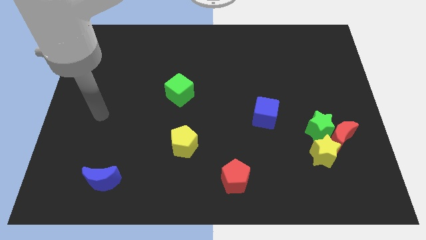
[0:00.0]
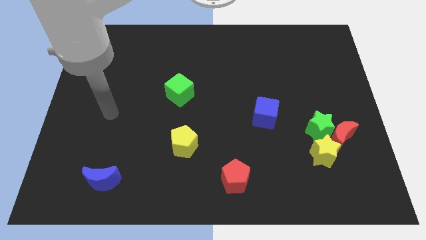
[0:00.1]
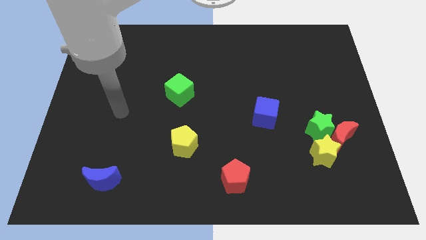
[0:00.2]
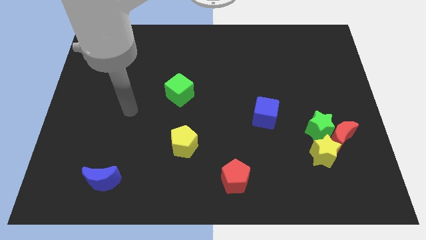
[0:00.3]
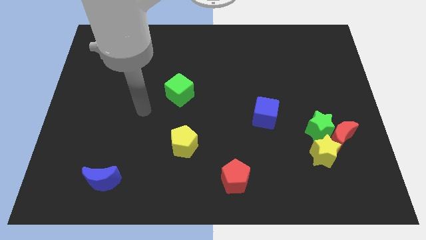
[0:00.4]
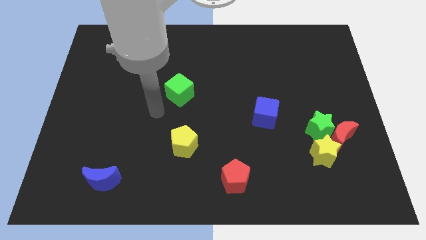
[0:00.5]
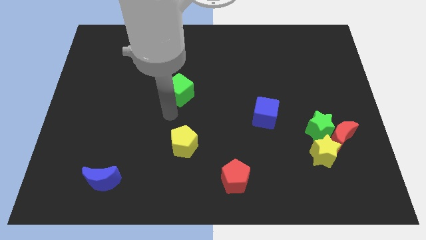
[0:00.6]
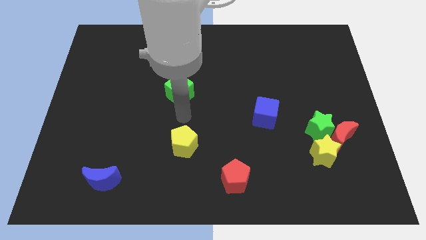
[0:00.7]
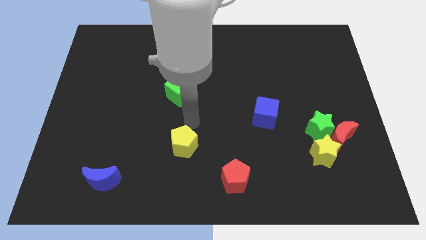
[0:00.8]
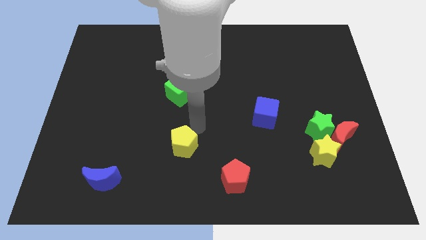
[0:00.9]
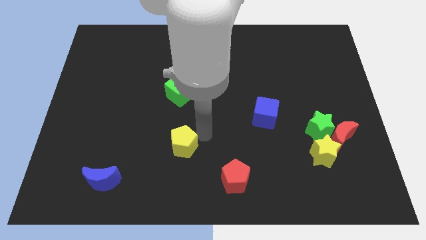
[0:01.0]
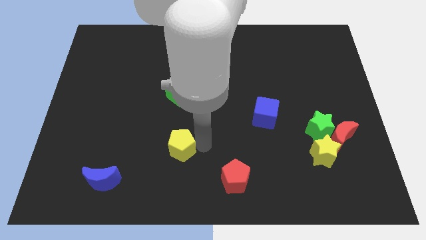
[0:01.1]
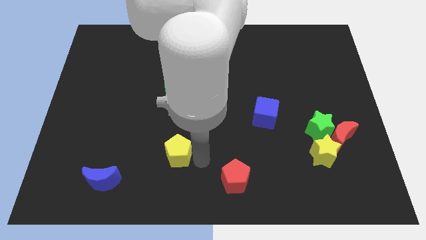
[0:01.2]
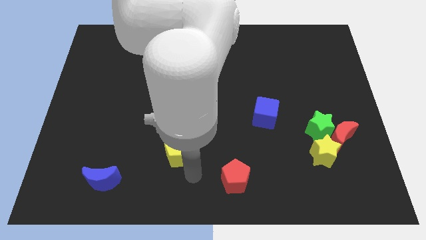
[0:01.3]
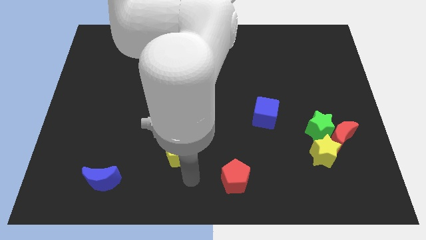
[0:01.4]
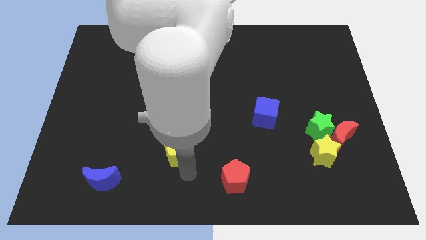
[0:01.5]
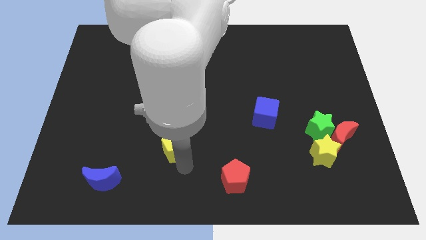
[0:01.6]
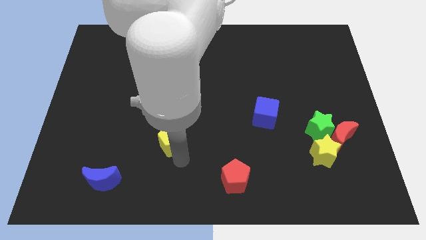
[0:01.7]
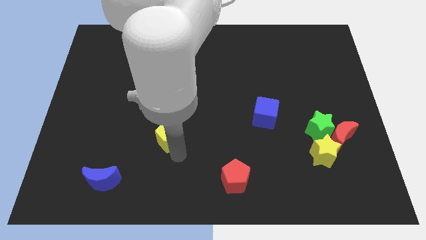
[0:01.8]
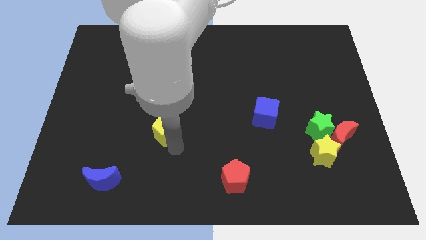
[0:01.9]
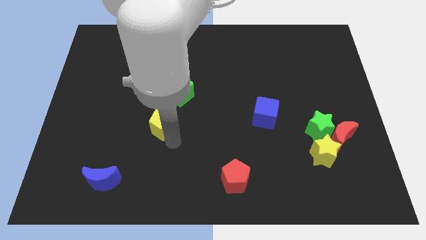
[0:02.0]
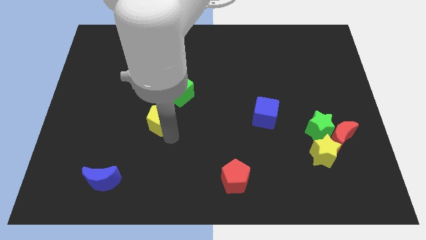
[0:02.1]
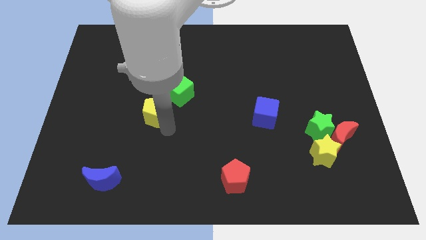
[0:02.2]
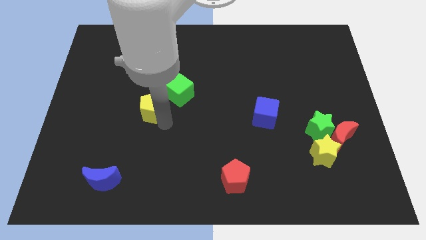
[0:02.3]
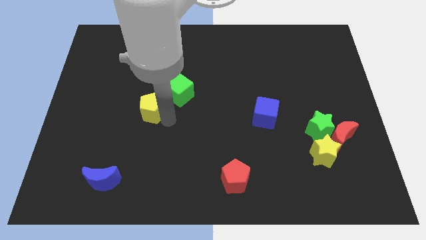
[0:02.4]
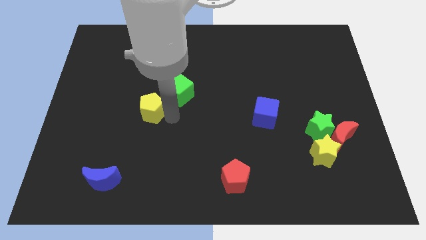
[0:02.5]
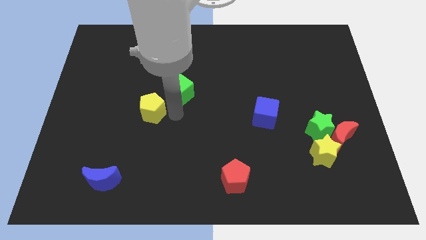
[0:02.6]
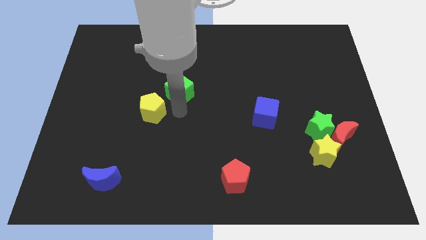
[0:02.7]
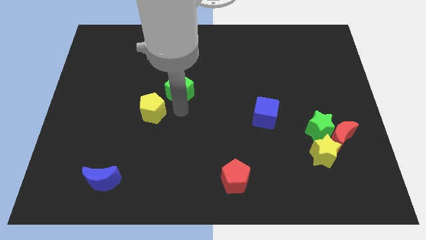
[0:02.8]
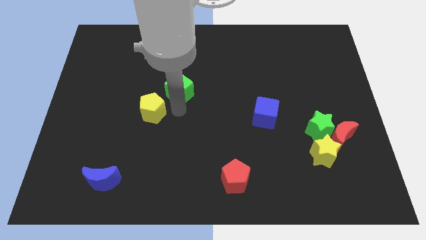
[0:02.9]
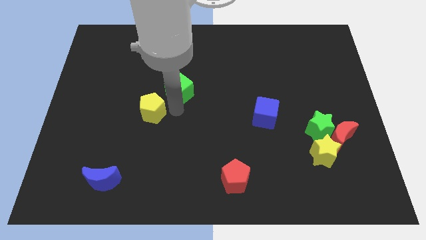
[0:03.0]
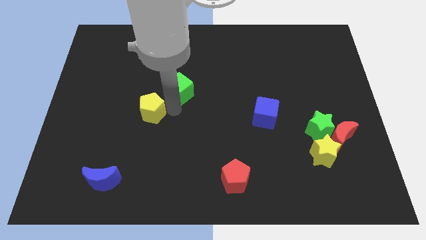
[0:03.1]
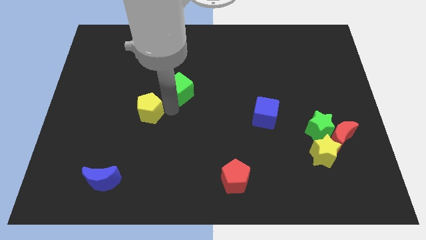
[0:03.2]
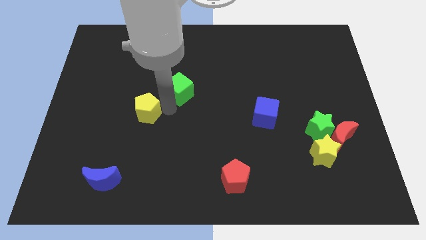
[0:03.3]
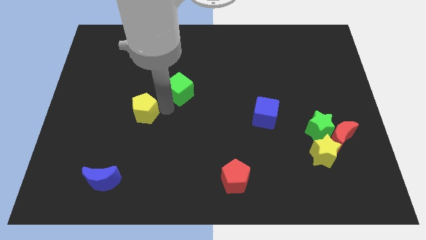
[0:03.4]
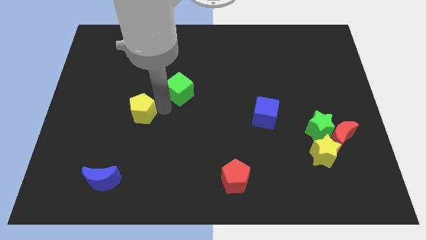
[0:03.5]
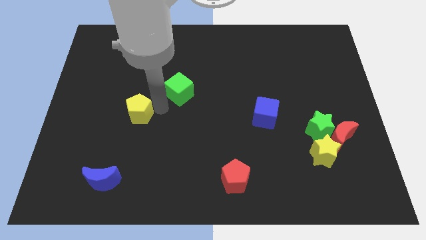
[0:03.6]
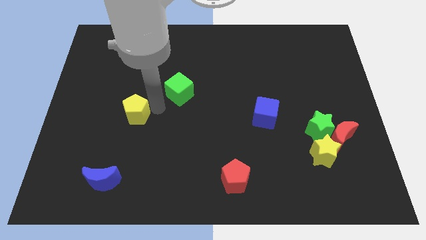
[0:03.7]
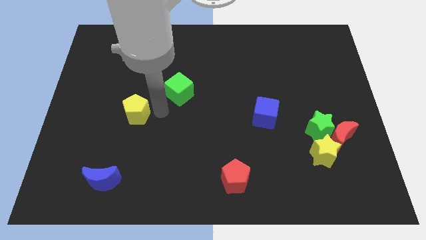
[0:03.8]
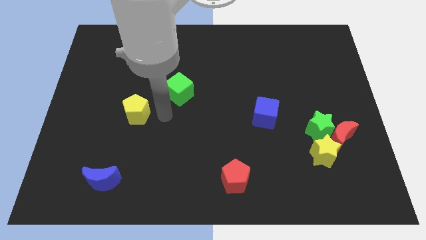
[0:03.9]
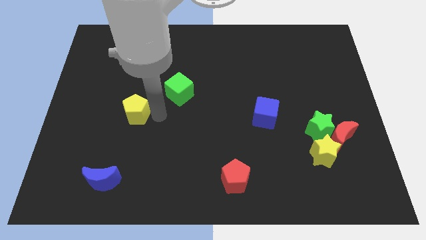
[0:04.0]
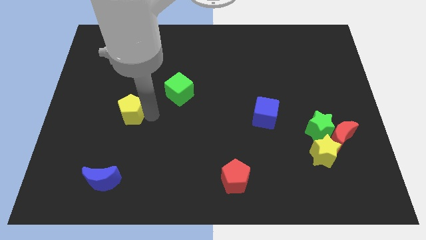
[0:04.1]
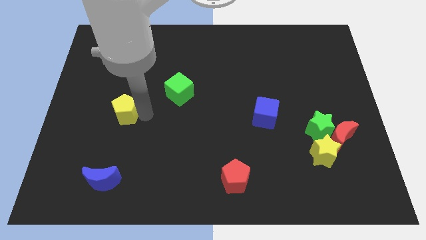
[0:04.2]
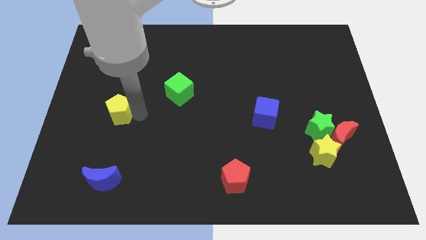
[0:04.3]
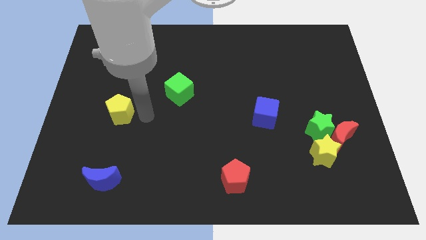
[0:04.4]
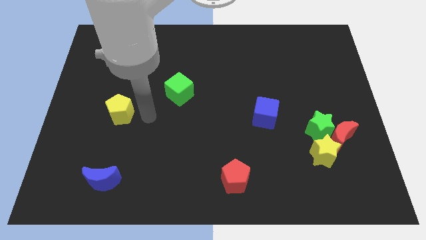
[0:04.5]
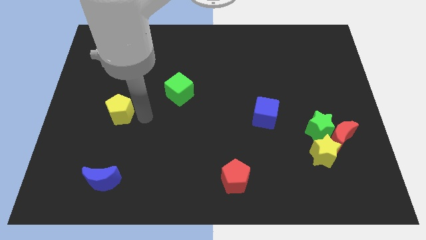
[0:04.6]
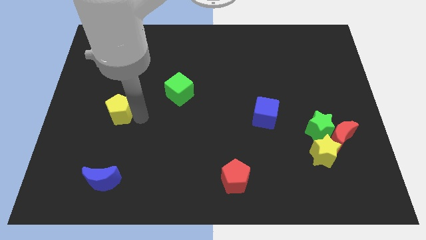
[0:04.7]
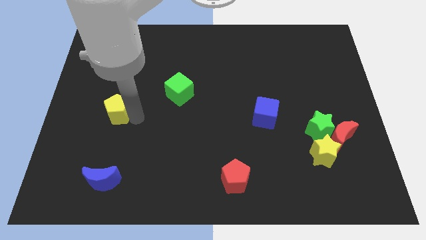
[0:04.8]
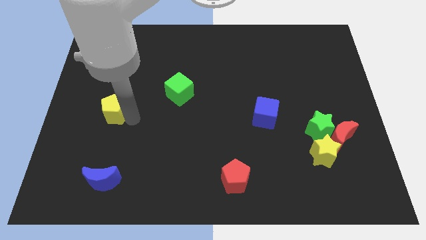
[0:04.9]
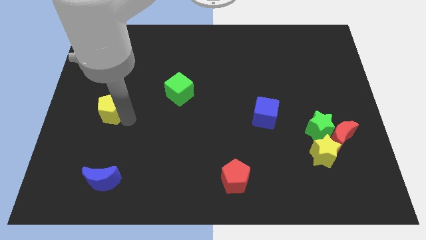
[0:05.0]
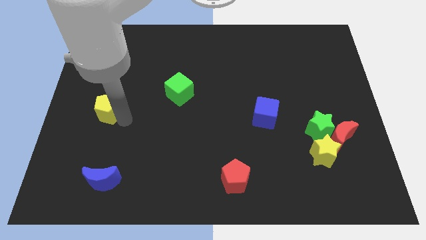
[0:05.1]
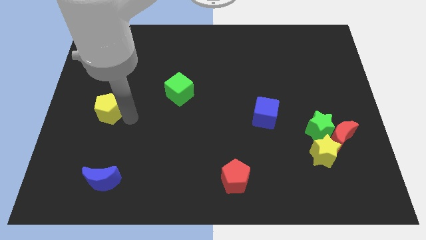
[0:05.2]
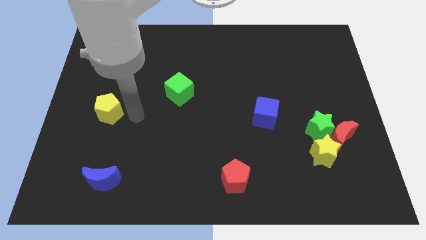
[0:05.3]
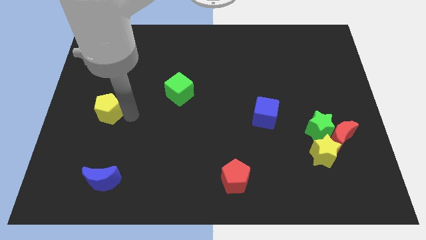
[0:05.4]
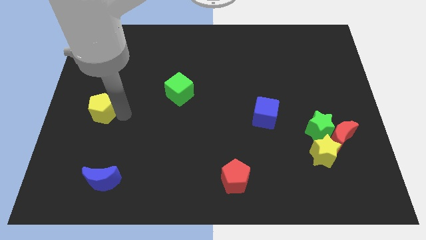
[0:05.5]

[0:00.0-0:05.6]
put the yellow pentagon to the left side of the board

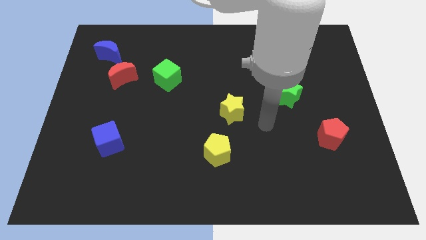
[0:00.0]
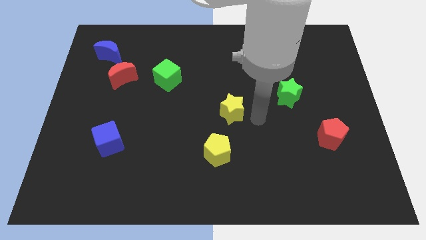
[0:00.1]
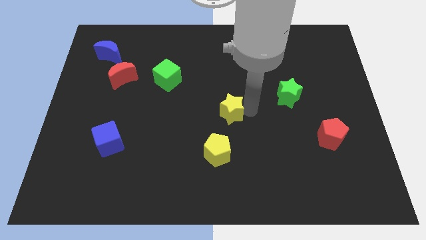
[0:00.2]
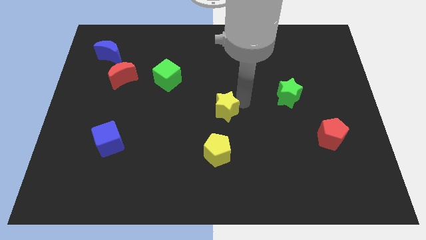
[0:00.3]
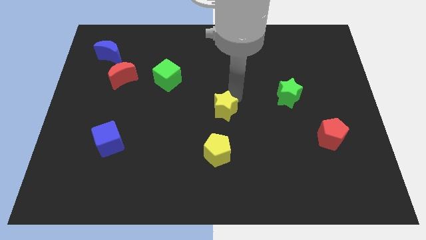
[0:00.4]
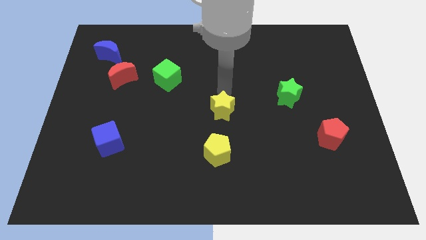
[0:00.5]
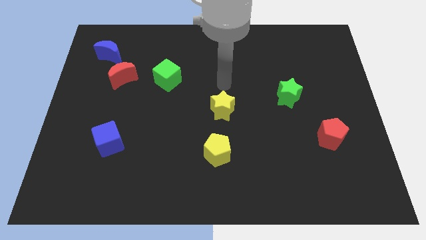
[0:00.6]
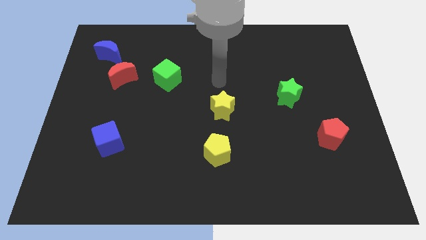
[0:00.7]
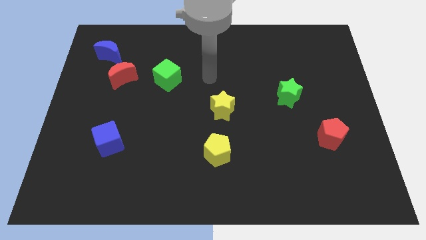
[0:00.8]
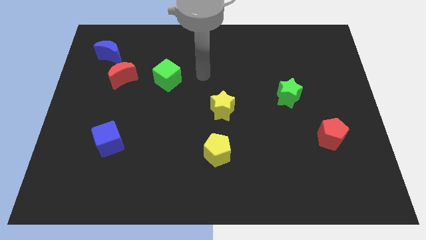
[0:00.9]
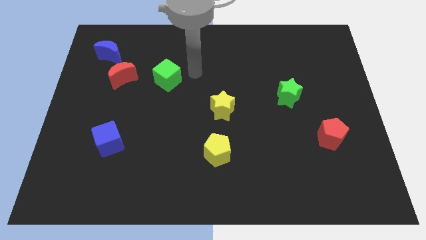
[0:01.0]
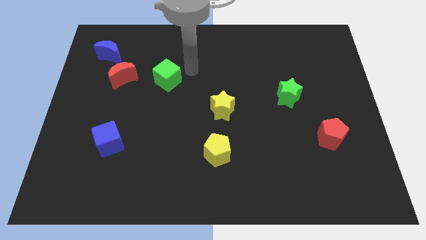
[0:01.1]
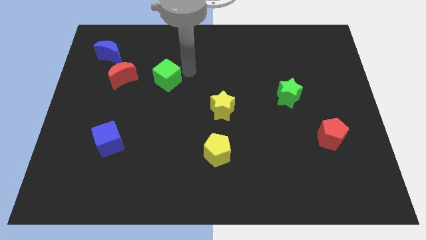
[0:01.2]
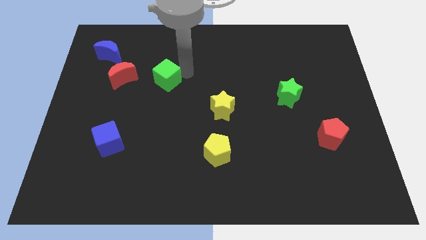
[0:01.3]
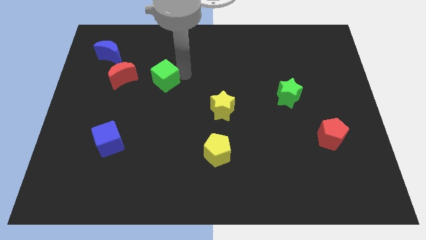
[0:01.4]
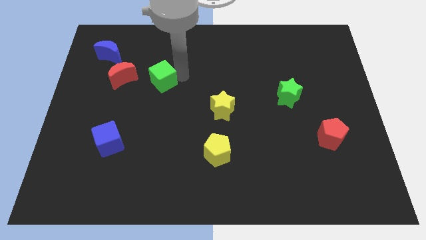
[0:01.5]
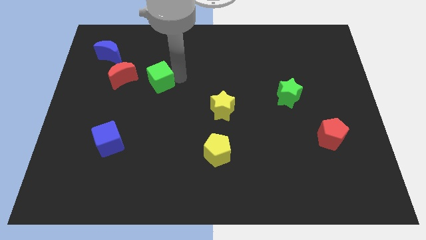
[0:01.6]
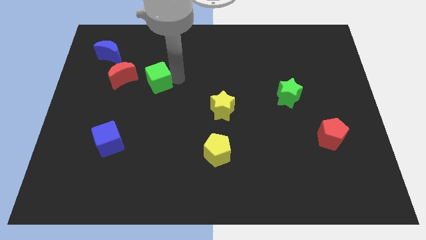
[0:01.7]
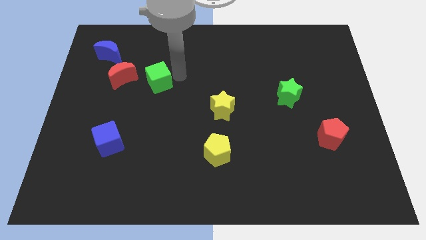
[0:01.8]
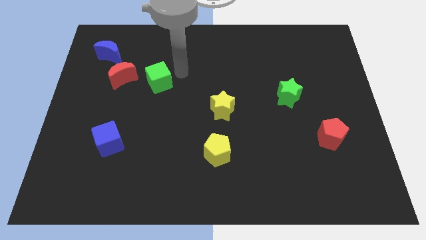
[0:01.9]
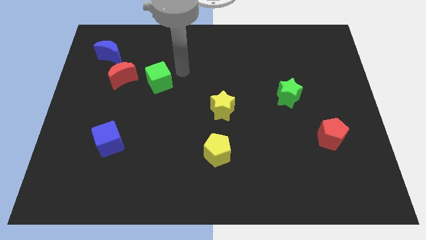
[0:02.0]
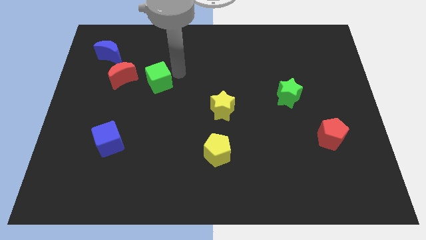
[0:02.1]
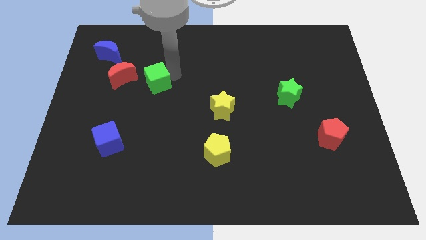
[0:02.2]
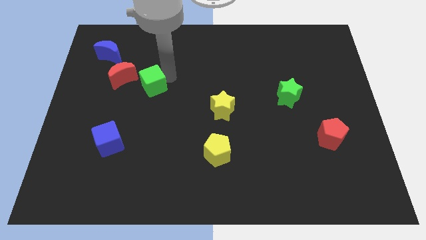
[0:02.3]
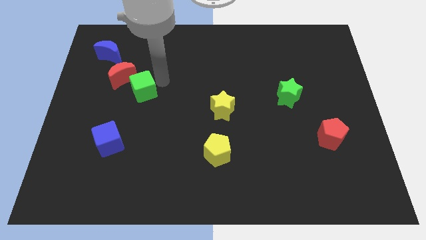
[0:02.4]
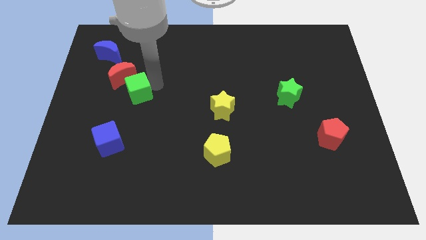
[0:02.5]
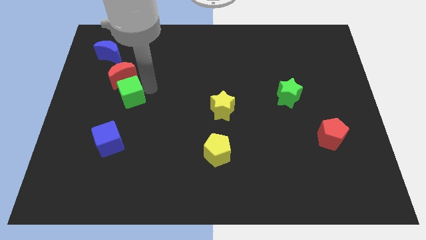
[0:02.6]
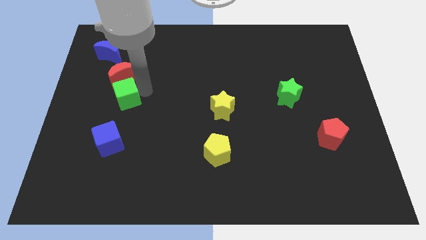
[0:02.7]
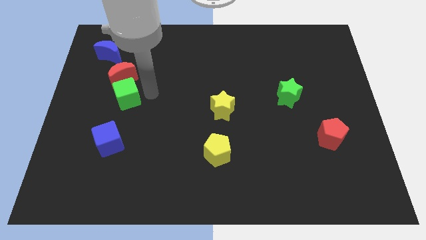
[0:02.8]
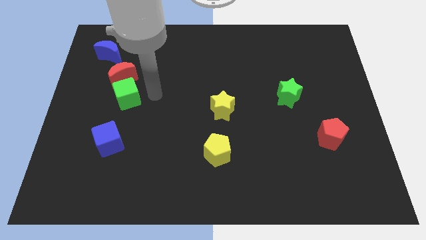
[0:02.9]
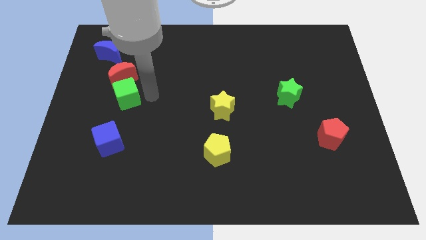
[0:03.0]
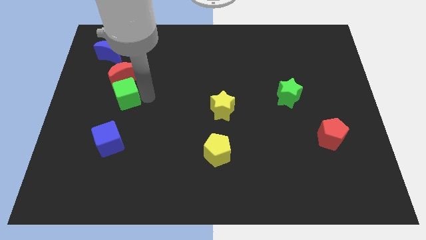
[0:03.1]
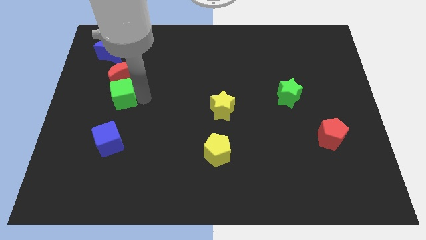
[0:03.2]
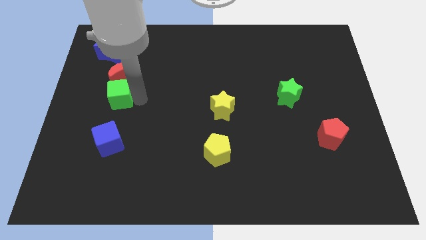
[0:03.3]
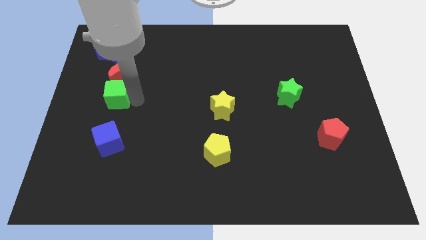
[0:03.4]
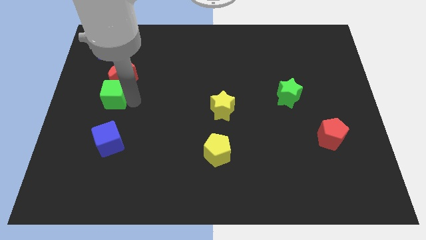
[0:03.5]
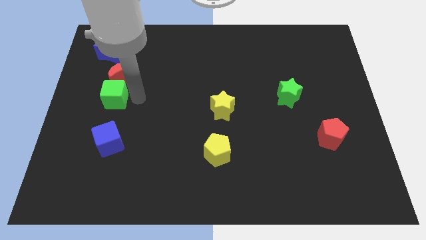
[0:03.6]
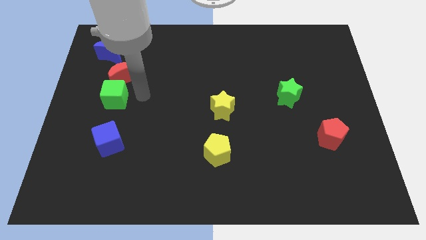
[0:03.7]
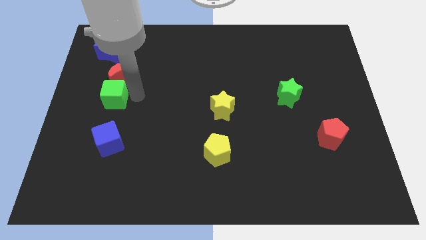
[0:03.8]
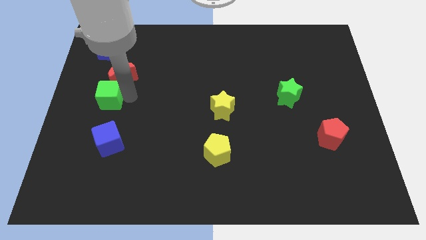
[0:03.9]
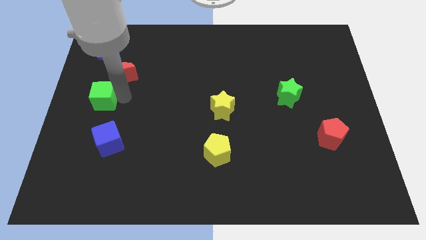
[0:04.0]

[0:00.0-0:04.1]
move the green cube to the center left
